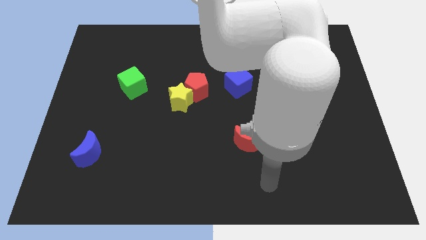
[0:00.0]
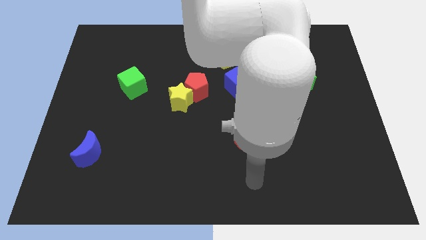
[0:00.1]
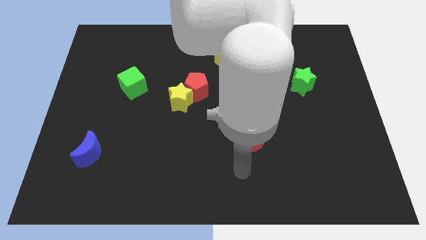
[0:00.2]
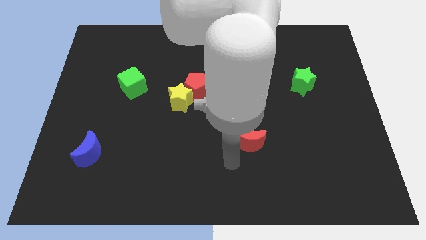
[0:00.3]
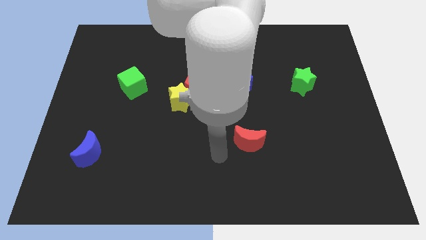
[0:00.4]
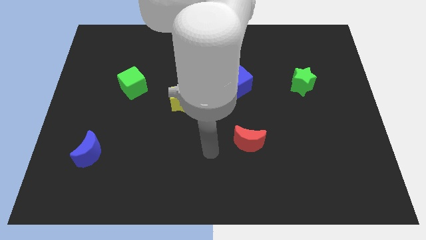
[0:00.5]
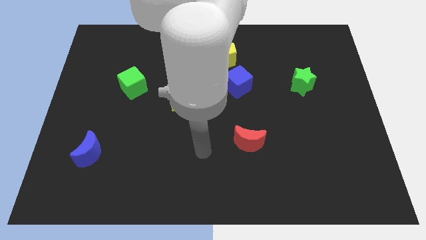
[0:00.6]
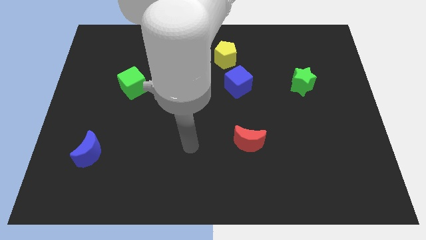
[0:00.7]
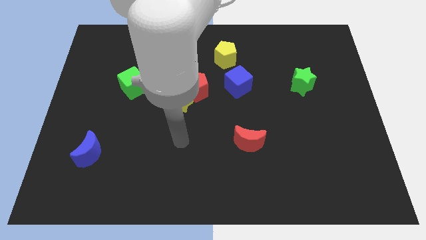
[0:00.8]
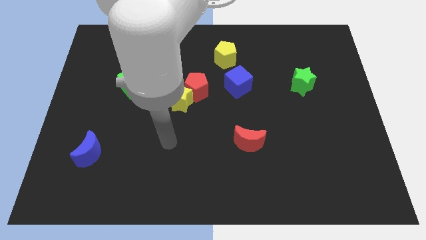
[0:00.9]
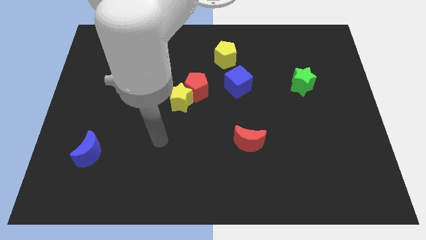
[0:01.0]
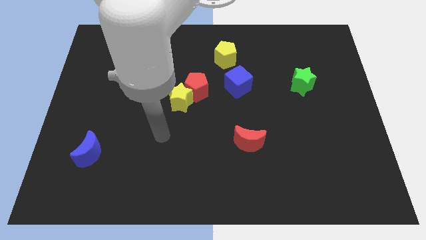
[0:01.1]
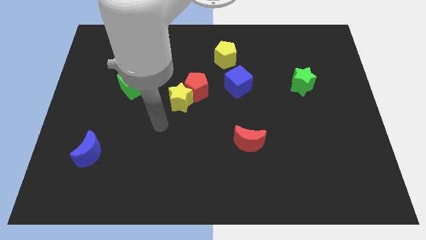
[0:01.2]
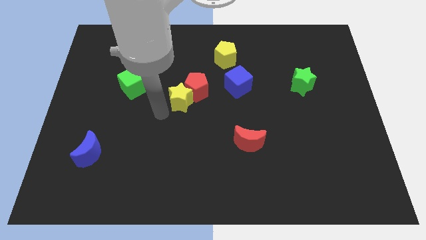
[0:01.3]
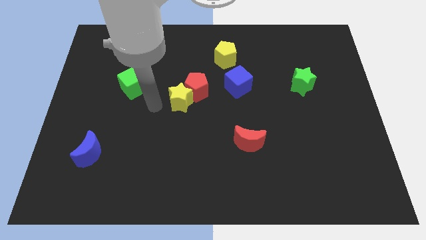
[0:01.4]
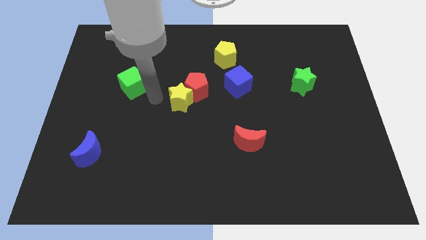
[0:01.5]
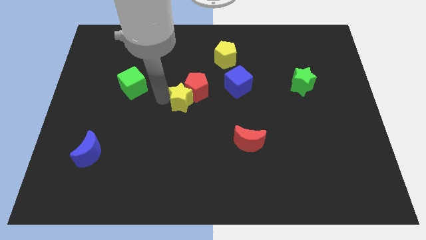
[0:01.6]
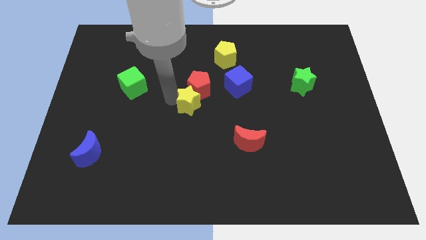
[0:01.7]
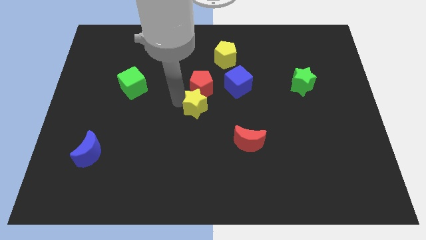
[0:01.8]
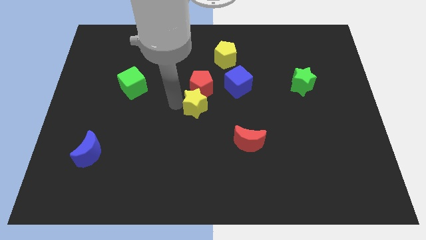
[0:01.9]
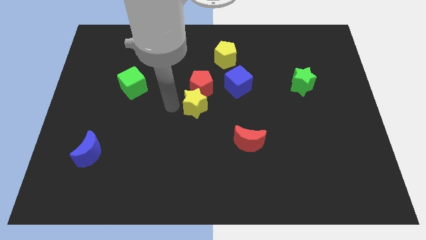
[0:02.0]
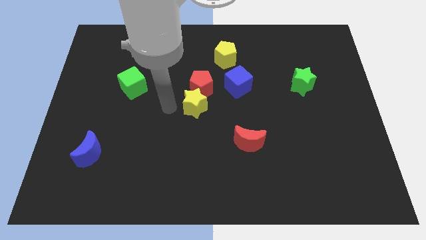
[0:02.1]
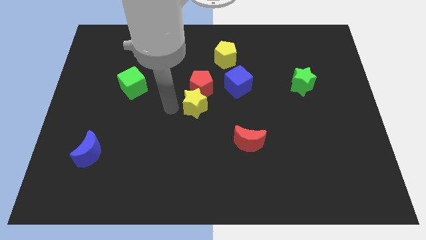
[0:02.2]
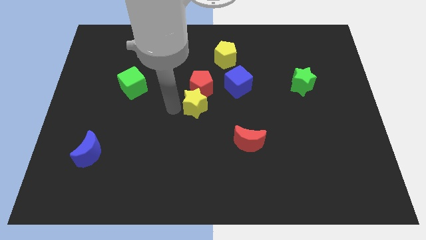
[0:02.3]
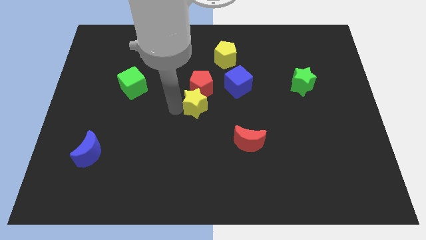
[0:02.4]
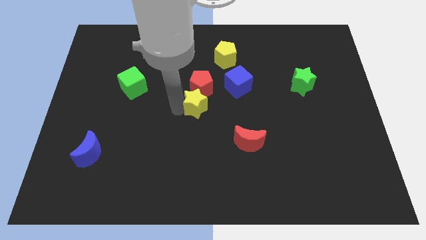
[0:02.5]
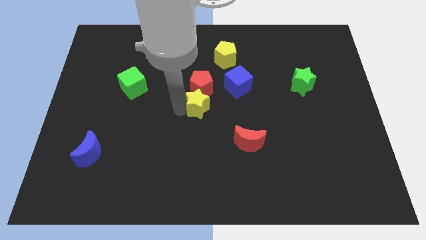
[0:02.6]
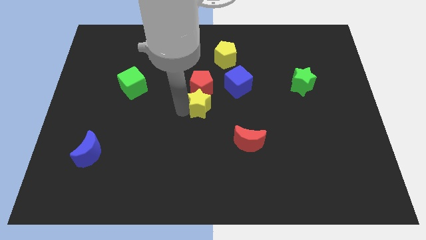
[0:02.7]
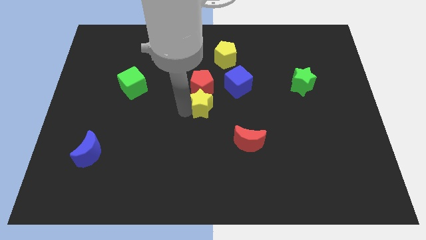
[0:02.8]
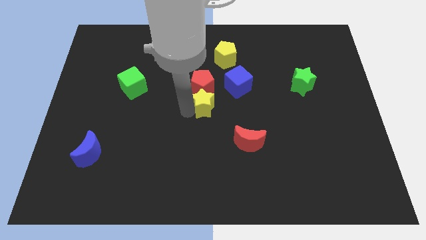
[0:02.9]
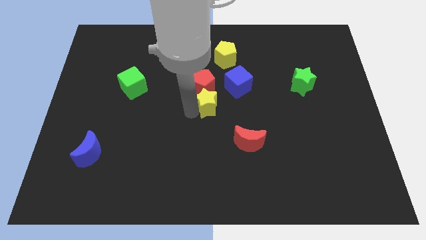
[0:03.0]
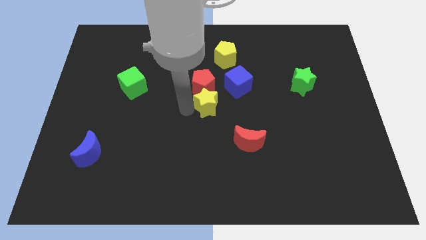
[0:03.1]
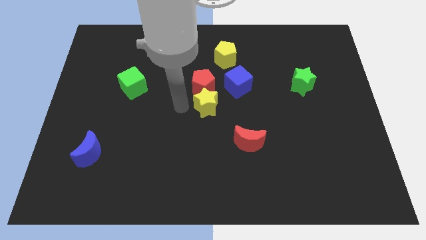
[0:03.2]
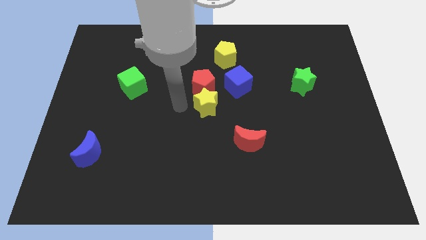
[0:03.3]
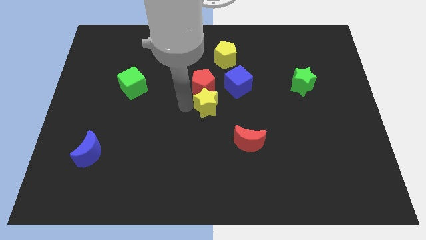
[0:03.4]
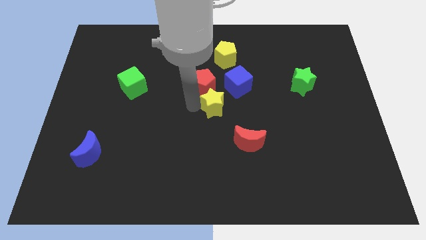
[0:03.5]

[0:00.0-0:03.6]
slide the yellow star to the right slightly

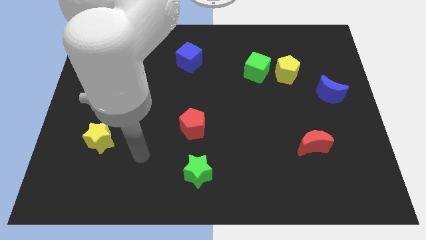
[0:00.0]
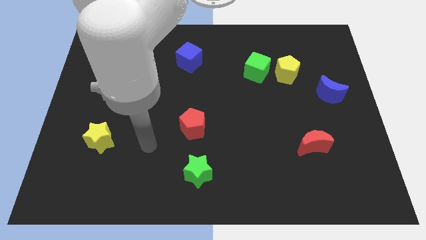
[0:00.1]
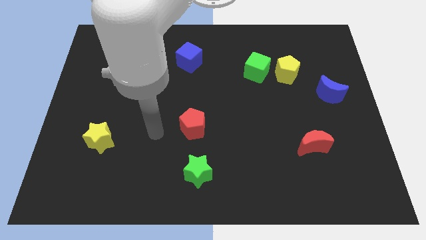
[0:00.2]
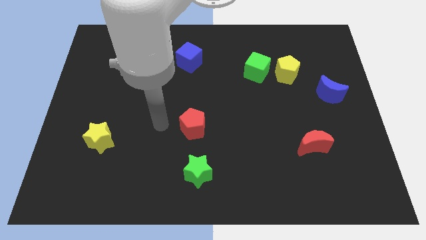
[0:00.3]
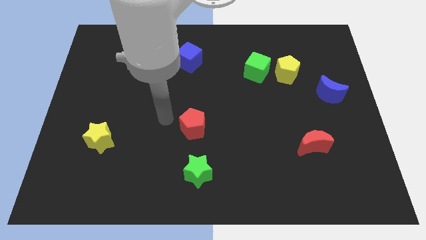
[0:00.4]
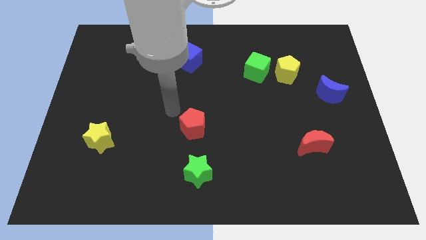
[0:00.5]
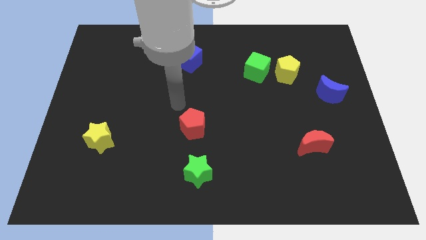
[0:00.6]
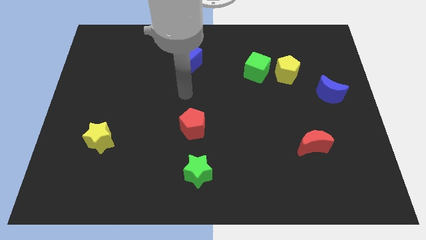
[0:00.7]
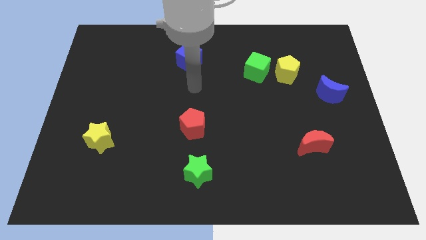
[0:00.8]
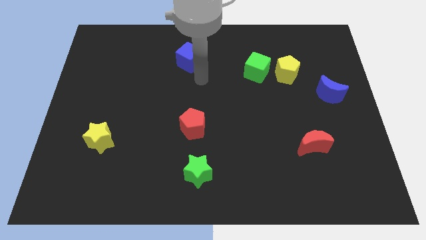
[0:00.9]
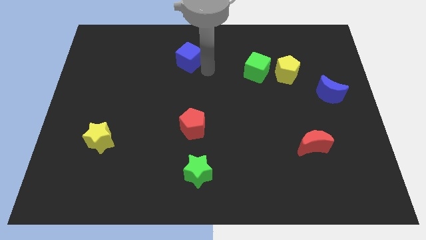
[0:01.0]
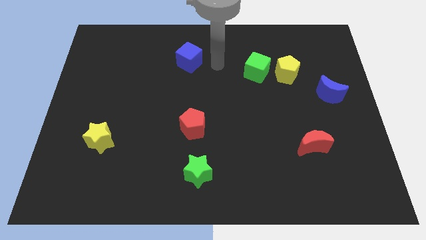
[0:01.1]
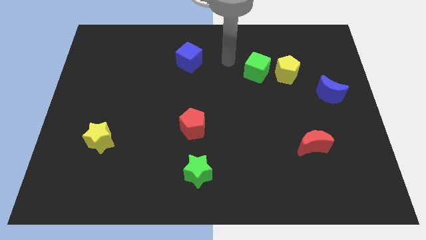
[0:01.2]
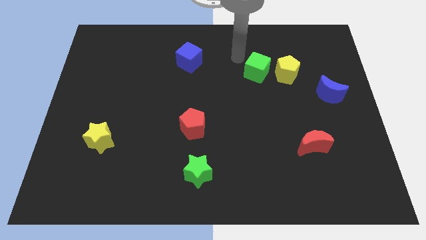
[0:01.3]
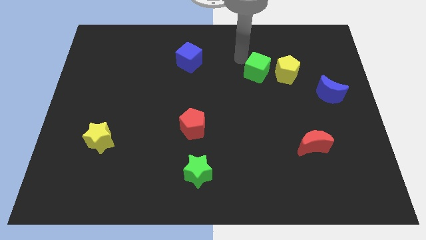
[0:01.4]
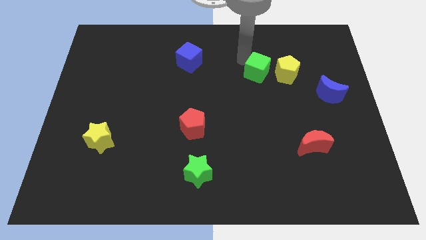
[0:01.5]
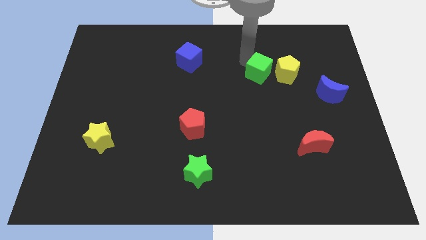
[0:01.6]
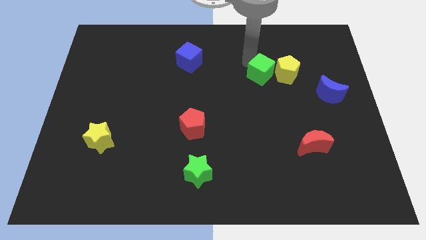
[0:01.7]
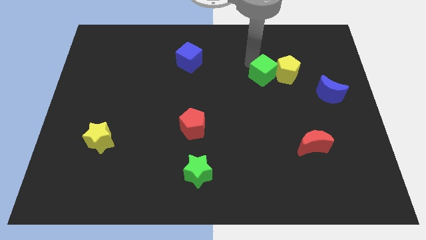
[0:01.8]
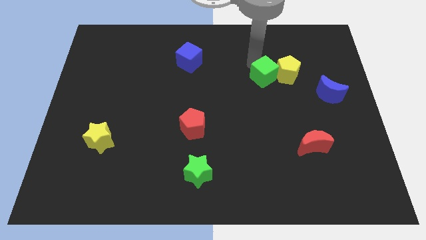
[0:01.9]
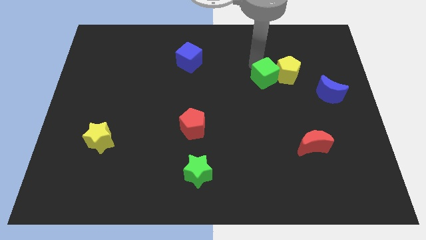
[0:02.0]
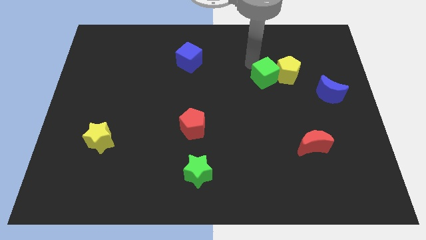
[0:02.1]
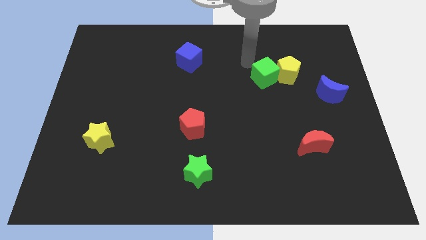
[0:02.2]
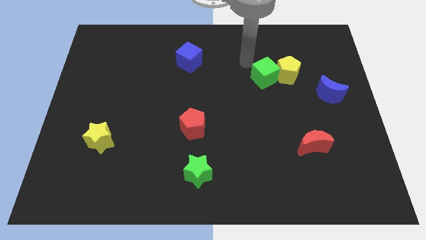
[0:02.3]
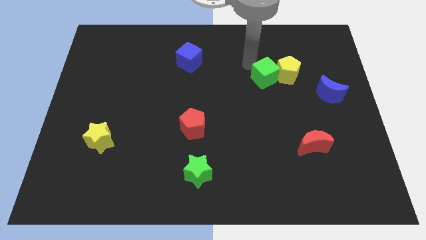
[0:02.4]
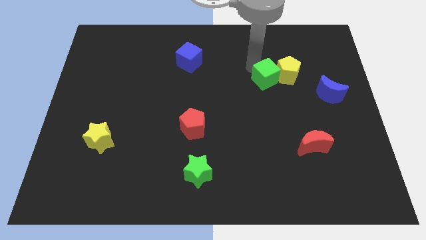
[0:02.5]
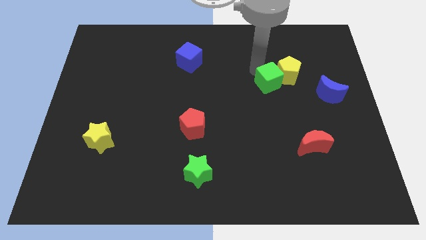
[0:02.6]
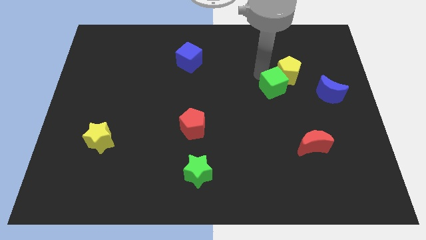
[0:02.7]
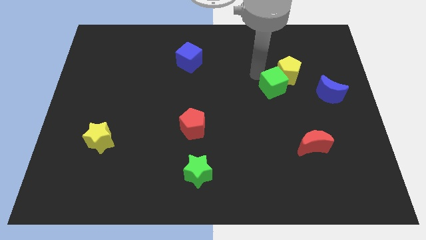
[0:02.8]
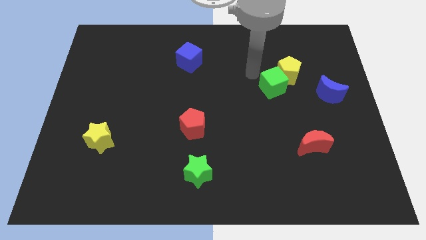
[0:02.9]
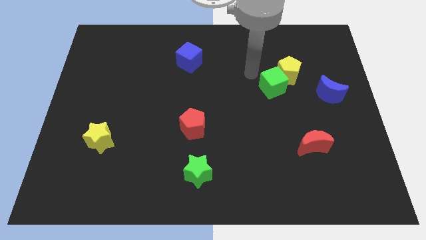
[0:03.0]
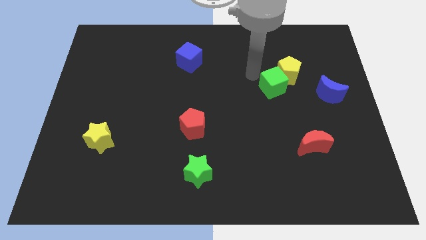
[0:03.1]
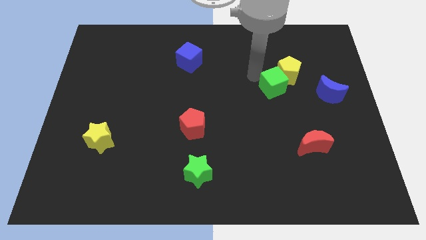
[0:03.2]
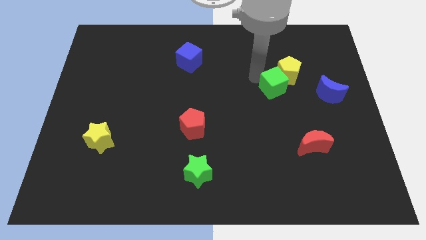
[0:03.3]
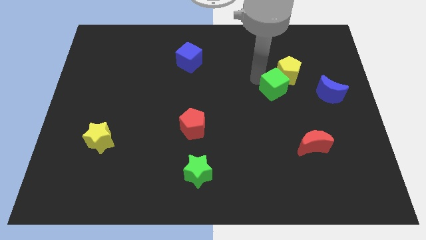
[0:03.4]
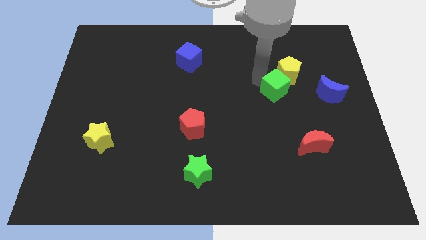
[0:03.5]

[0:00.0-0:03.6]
push the green cube downwards and to the right somewhat

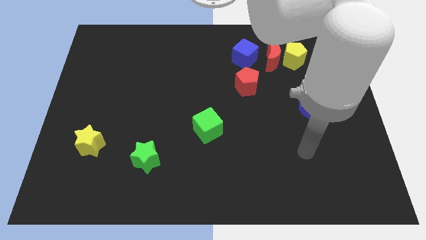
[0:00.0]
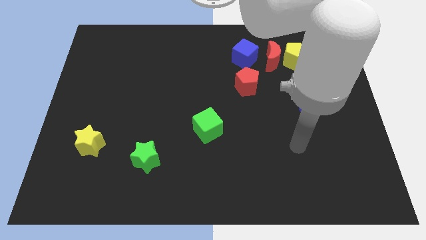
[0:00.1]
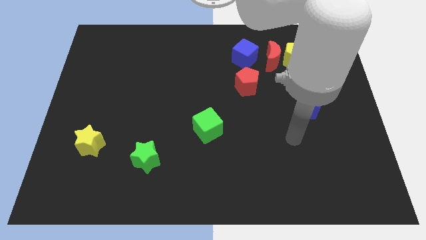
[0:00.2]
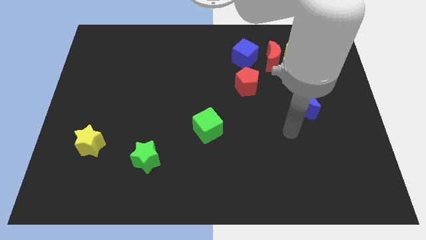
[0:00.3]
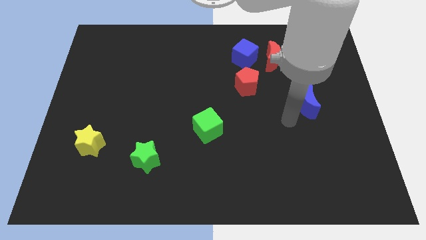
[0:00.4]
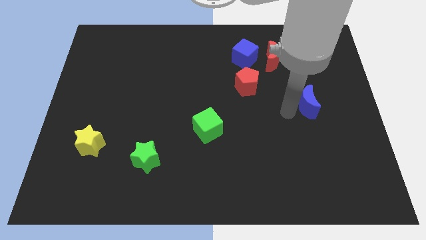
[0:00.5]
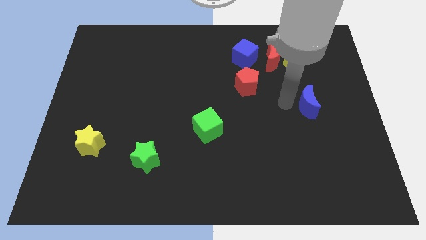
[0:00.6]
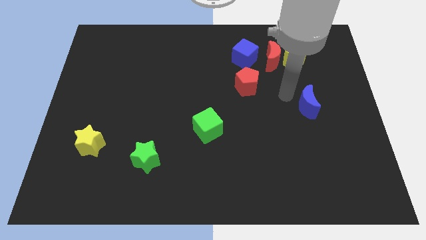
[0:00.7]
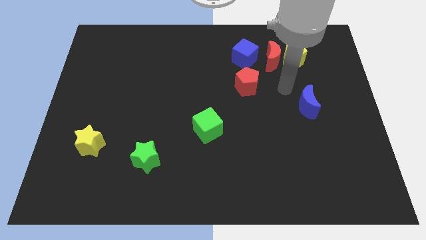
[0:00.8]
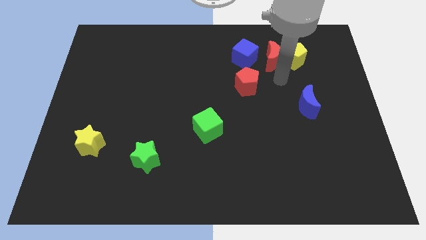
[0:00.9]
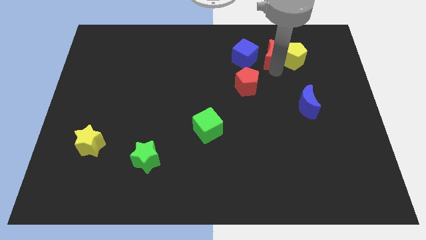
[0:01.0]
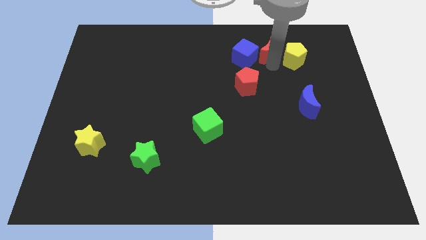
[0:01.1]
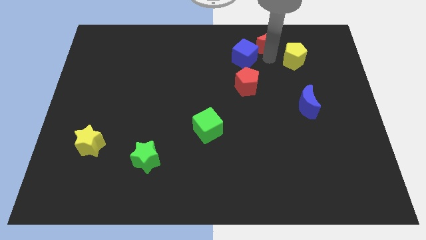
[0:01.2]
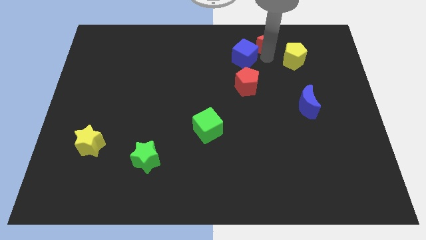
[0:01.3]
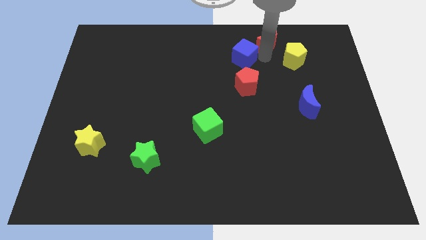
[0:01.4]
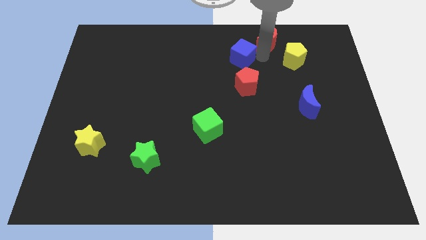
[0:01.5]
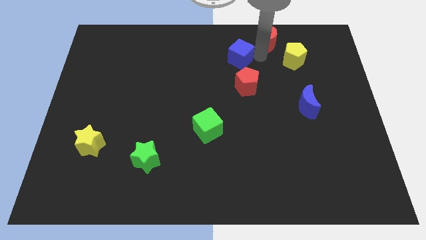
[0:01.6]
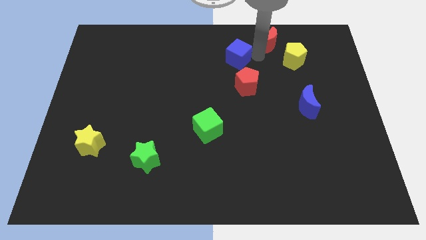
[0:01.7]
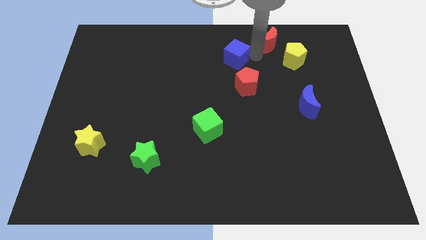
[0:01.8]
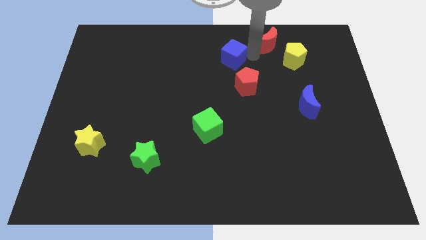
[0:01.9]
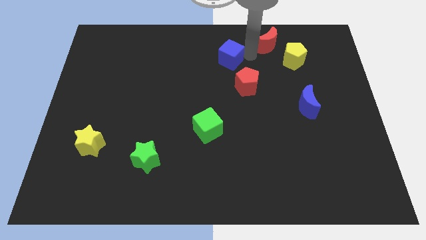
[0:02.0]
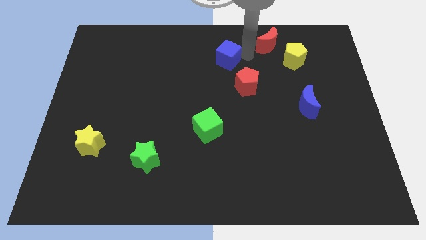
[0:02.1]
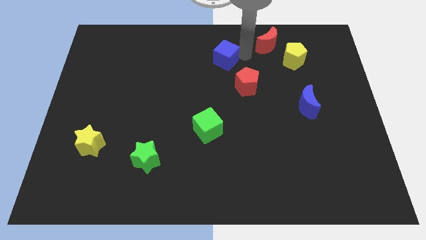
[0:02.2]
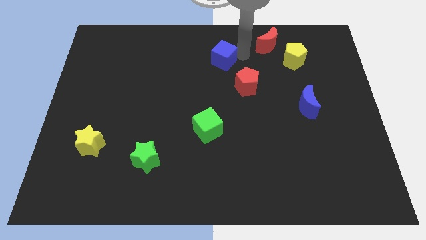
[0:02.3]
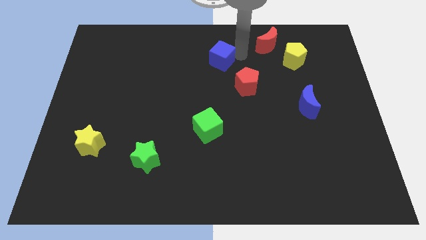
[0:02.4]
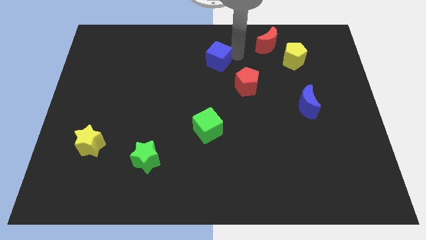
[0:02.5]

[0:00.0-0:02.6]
move the blue cube somewhat to the left
